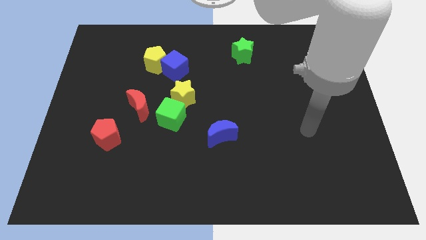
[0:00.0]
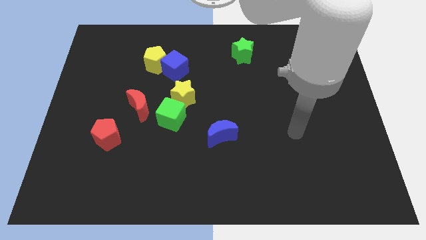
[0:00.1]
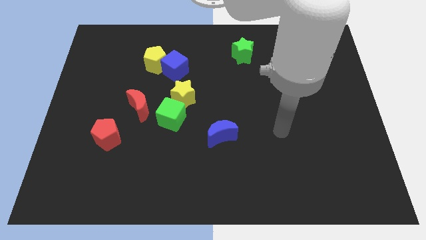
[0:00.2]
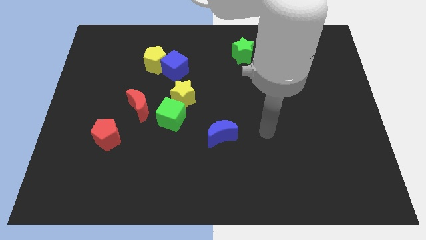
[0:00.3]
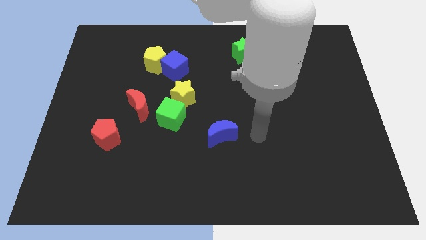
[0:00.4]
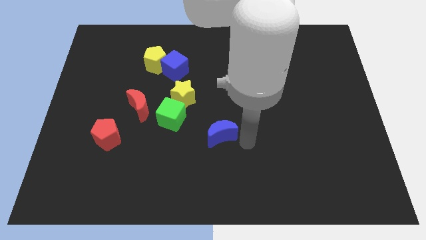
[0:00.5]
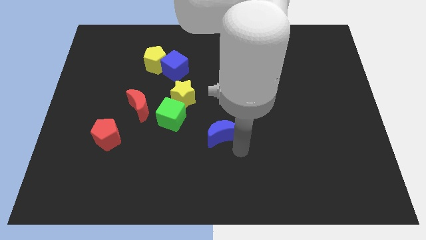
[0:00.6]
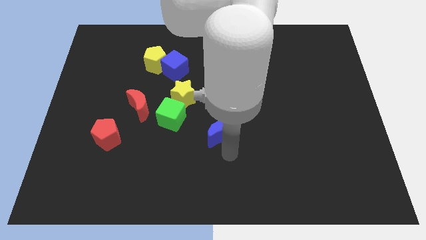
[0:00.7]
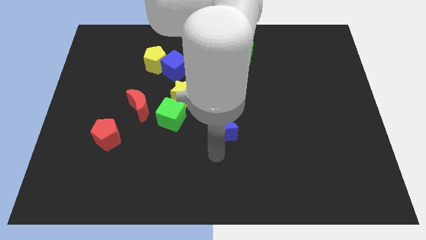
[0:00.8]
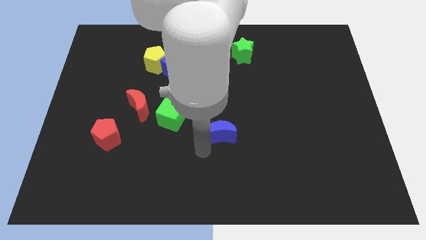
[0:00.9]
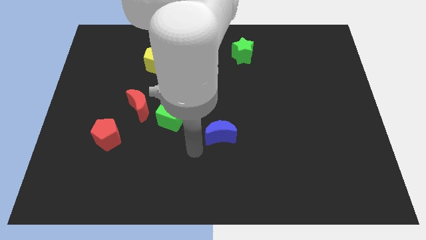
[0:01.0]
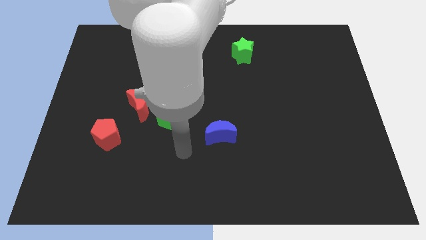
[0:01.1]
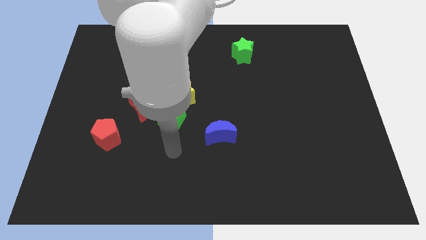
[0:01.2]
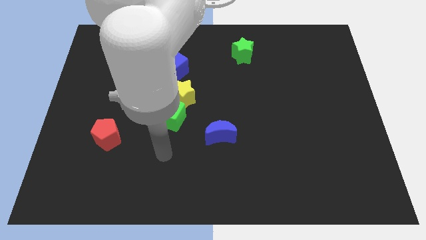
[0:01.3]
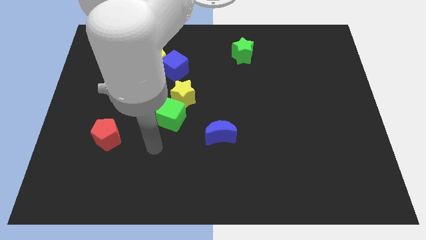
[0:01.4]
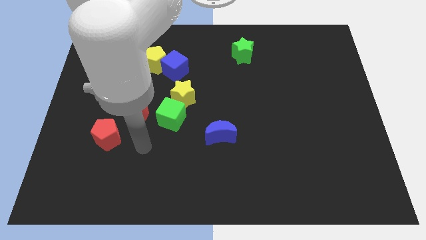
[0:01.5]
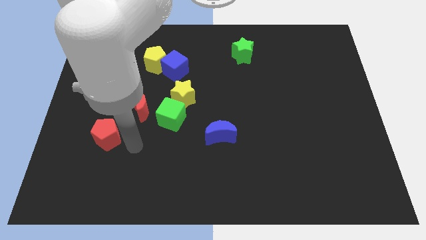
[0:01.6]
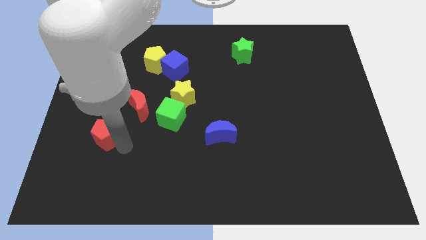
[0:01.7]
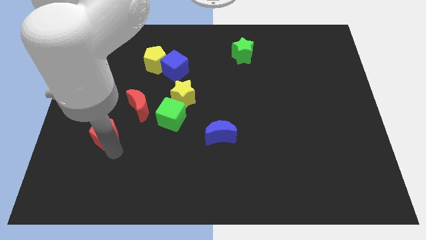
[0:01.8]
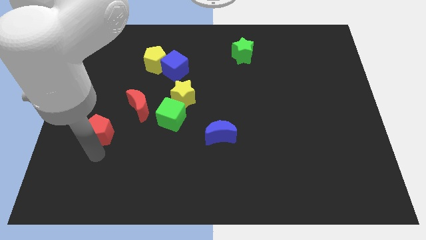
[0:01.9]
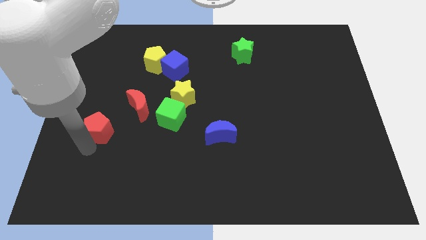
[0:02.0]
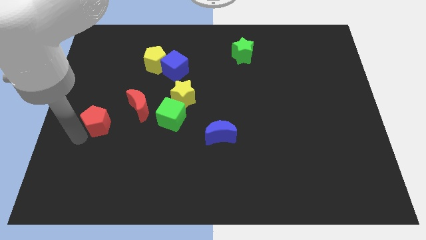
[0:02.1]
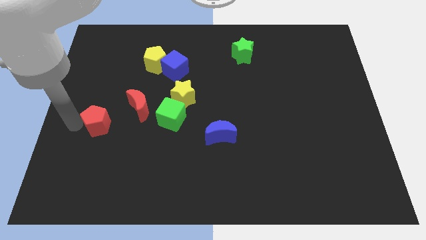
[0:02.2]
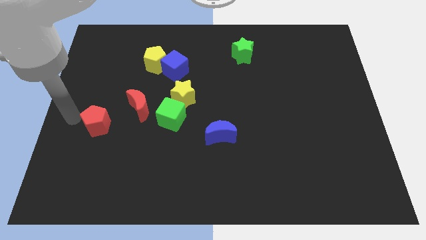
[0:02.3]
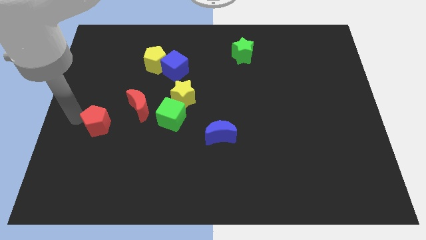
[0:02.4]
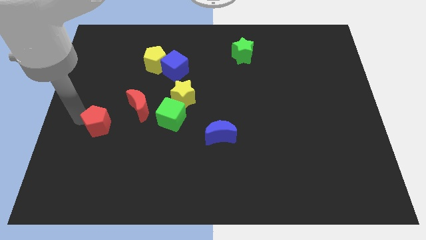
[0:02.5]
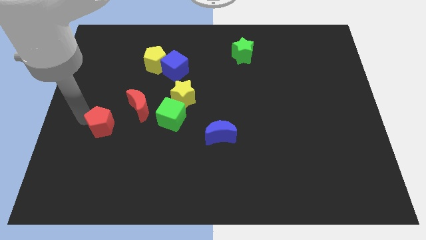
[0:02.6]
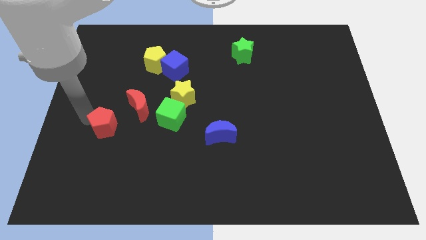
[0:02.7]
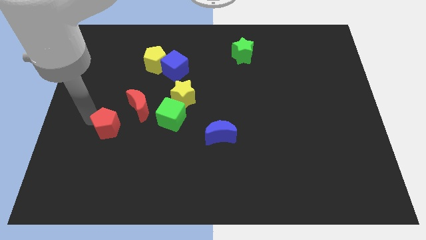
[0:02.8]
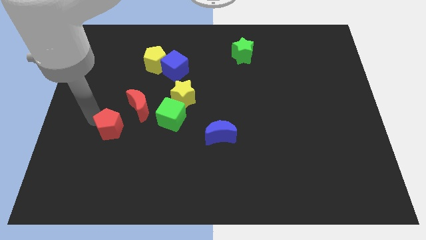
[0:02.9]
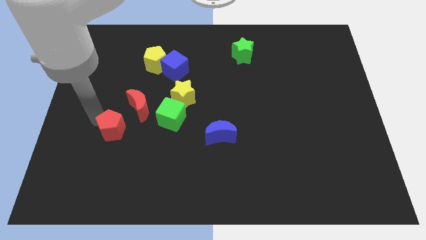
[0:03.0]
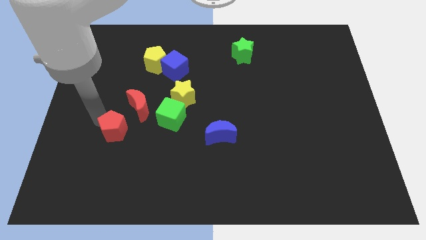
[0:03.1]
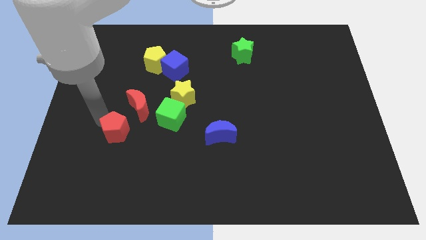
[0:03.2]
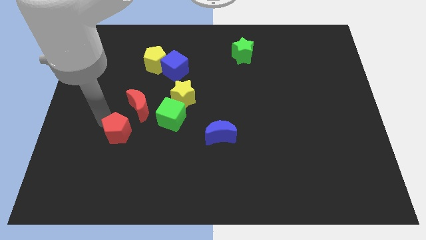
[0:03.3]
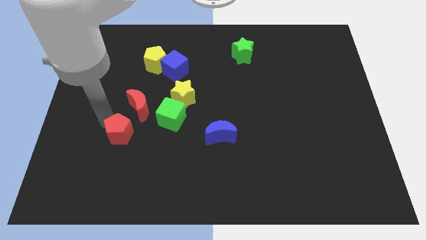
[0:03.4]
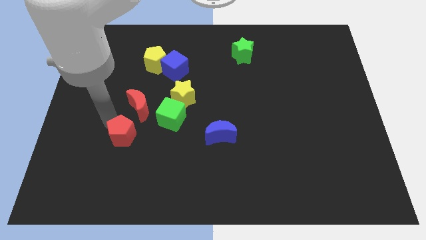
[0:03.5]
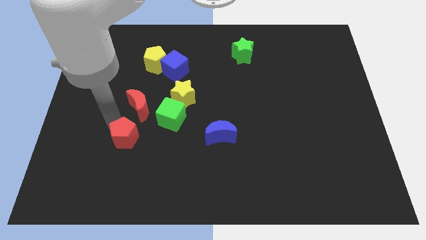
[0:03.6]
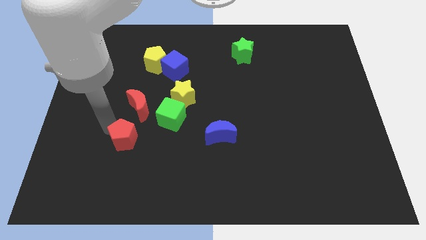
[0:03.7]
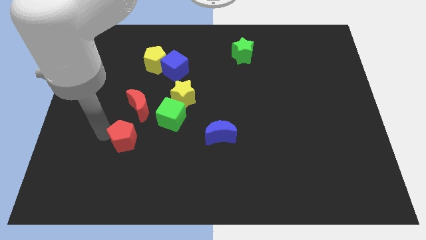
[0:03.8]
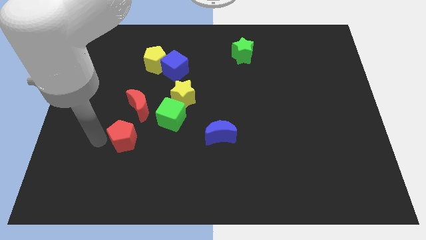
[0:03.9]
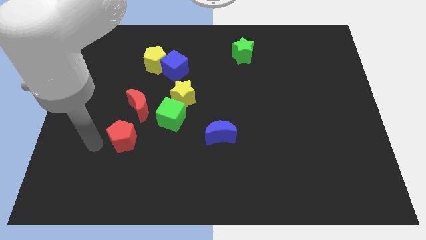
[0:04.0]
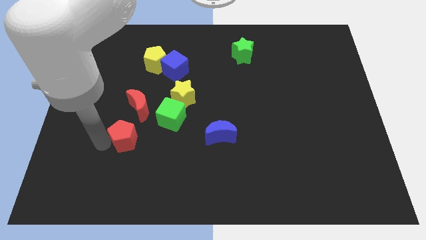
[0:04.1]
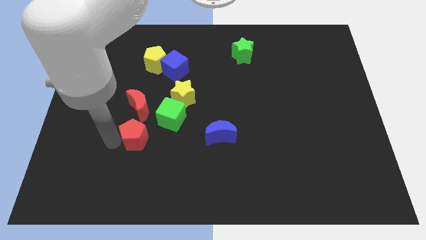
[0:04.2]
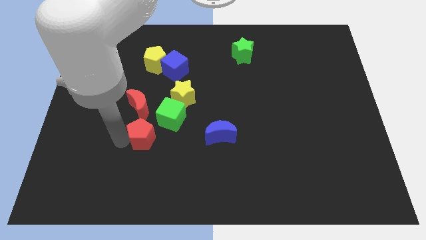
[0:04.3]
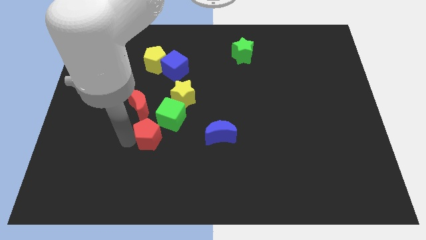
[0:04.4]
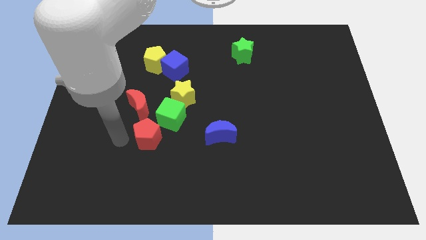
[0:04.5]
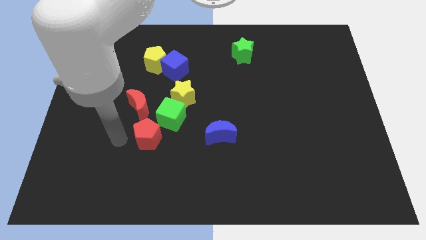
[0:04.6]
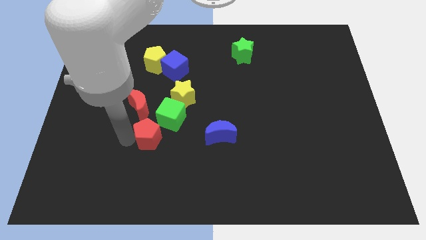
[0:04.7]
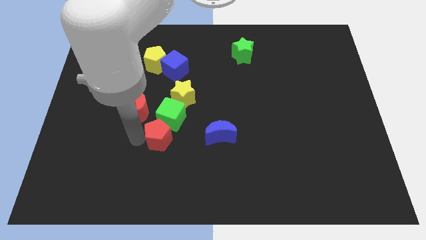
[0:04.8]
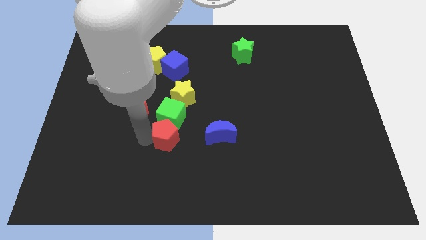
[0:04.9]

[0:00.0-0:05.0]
put the red pentagon to the bottom right of the green cube

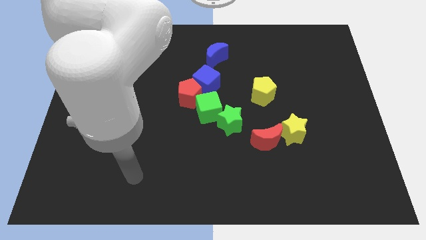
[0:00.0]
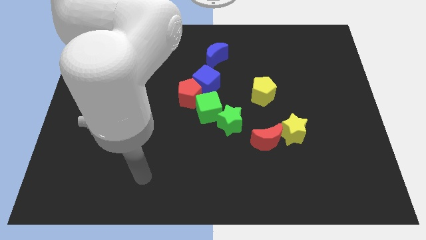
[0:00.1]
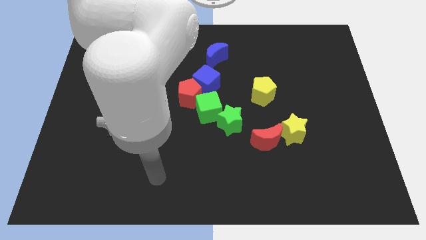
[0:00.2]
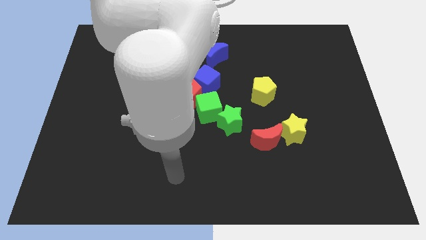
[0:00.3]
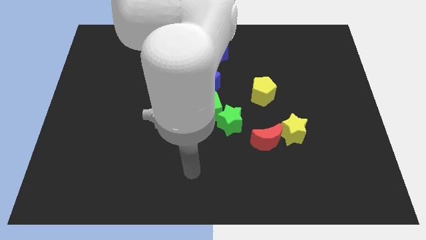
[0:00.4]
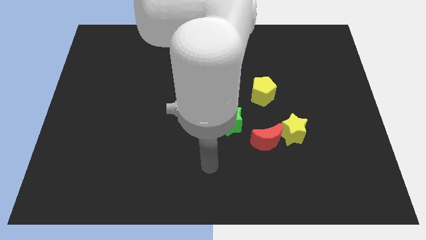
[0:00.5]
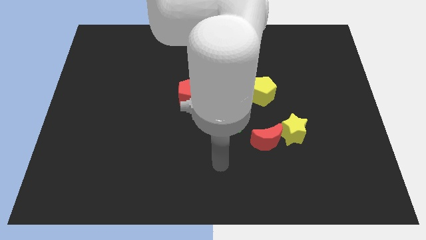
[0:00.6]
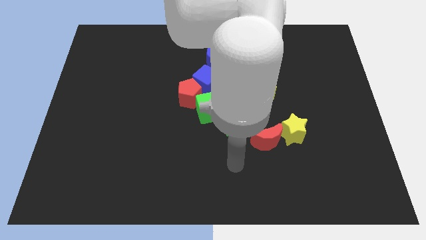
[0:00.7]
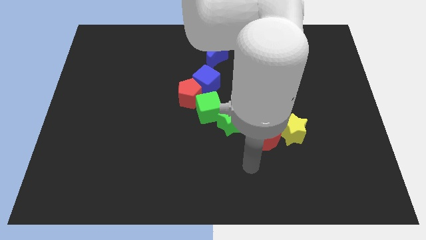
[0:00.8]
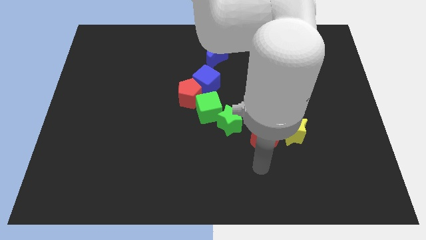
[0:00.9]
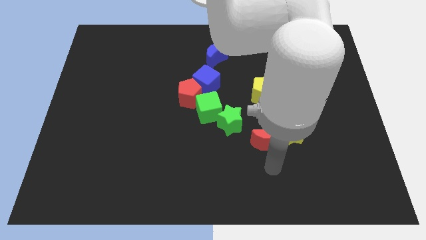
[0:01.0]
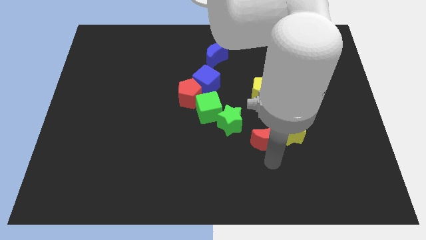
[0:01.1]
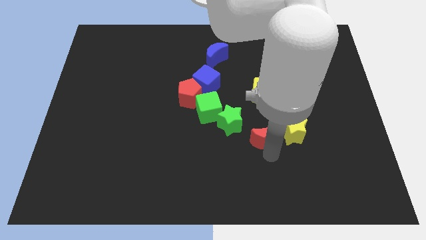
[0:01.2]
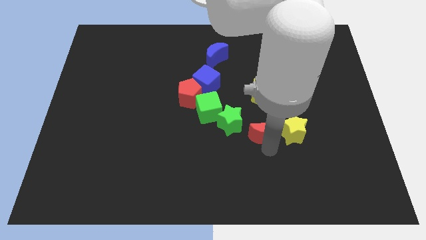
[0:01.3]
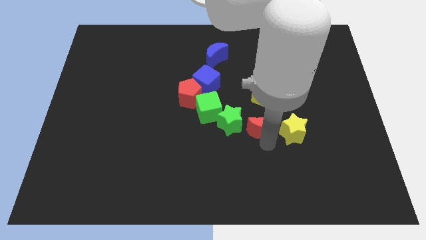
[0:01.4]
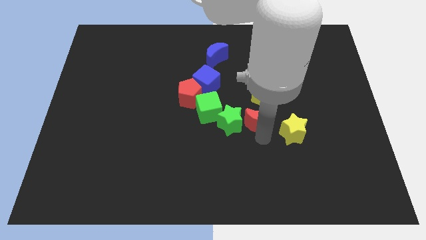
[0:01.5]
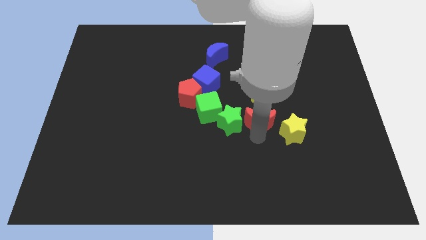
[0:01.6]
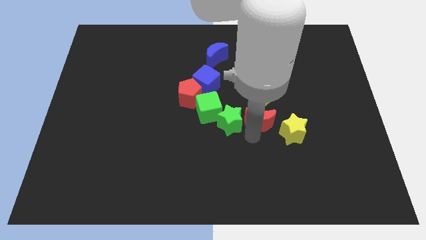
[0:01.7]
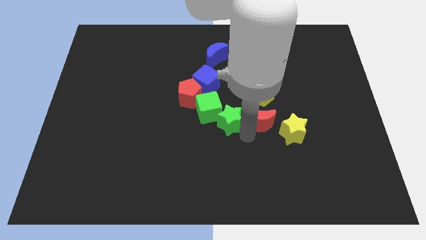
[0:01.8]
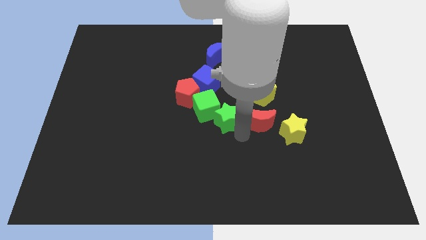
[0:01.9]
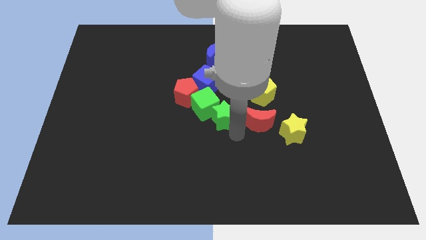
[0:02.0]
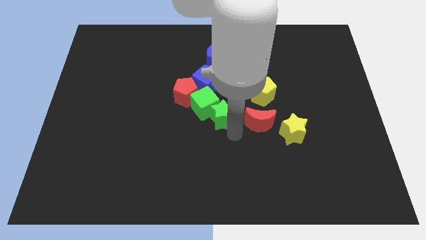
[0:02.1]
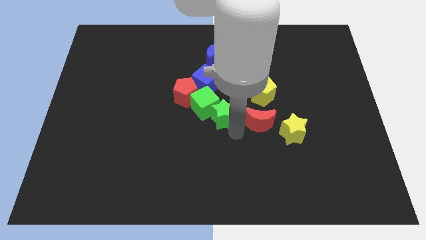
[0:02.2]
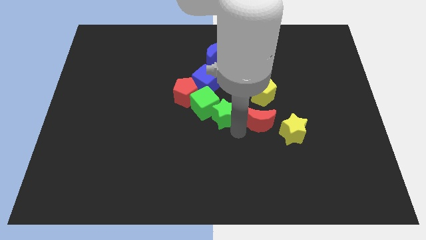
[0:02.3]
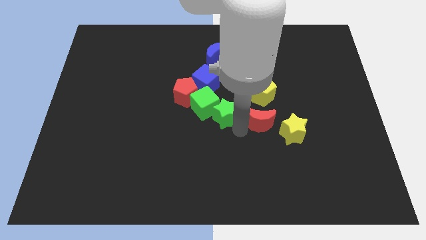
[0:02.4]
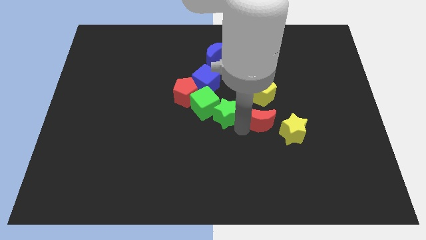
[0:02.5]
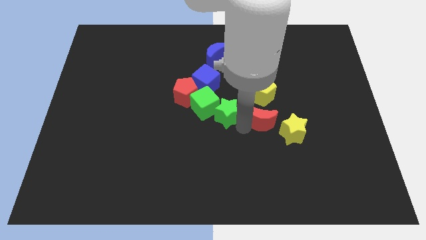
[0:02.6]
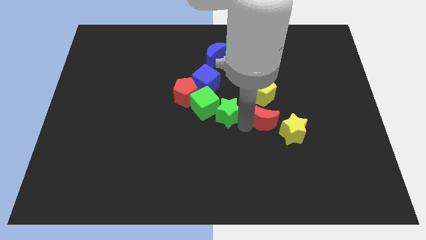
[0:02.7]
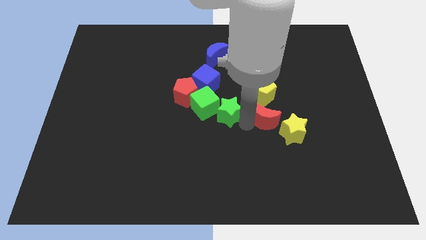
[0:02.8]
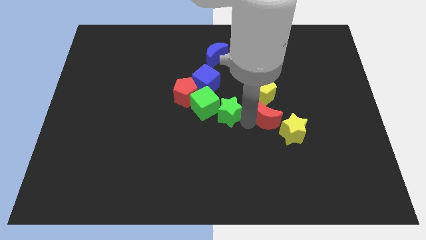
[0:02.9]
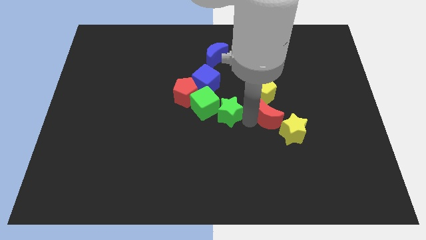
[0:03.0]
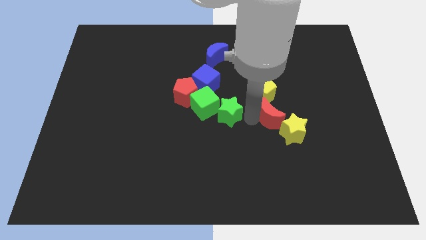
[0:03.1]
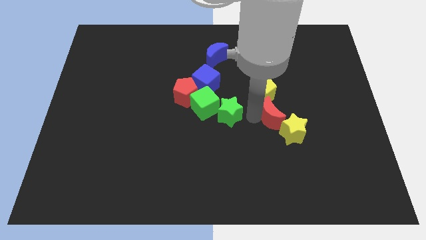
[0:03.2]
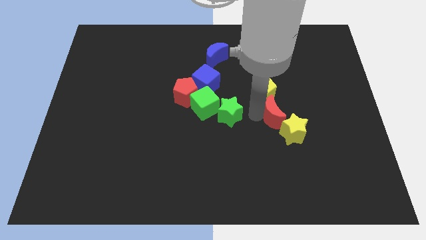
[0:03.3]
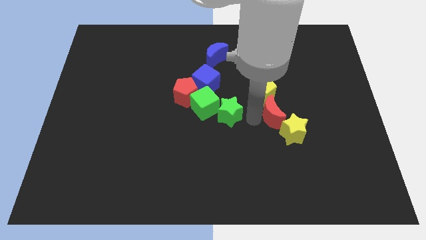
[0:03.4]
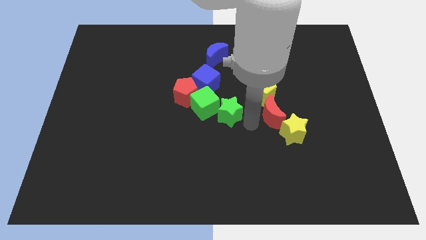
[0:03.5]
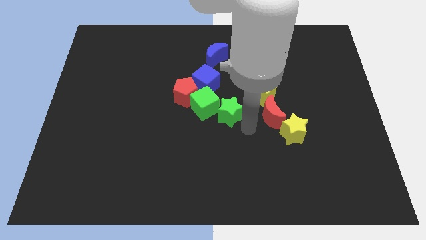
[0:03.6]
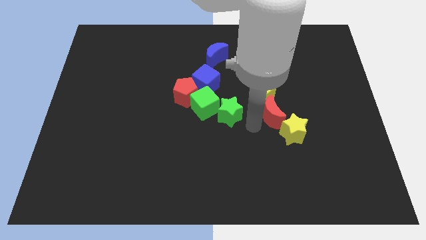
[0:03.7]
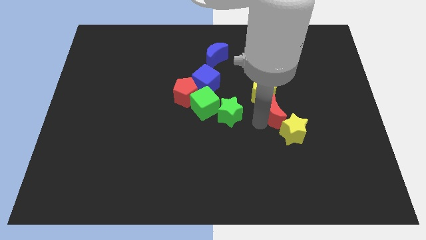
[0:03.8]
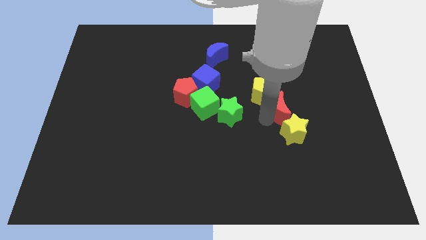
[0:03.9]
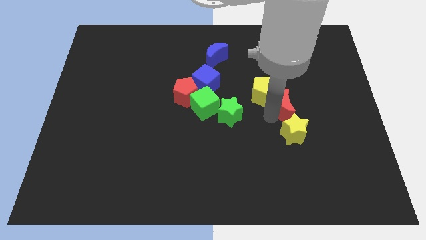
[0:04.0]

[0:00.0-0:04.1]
slide the red moon right of the yellow pentagon
